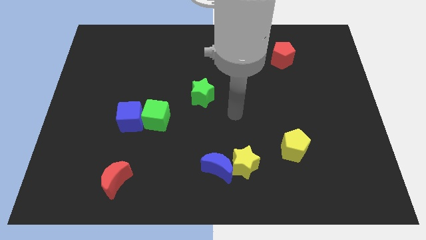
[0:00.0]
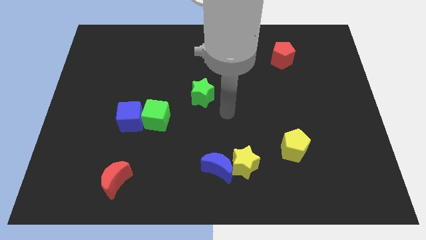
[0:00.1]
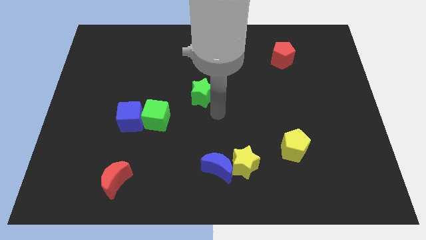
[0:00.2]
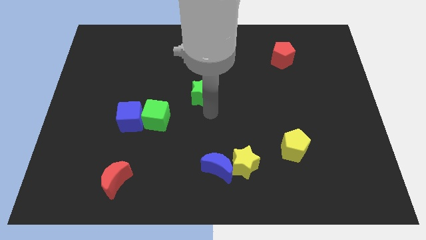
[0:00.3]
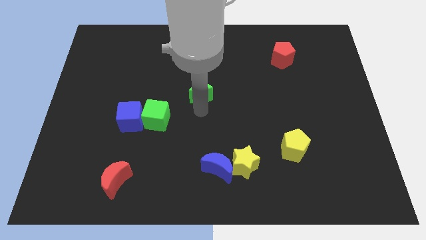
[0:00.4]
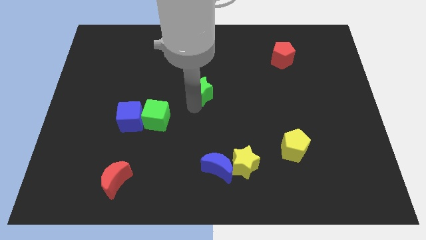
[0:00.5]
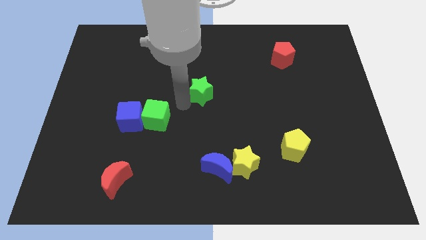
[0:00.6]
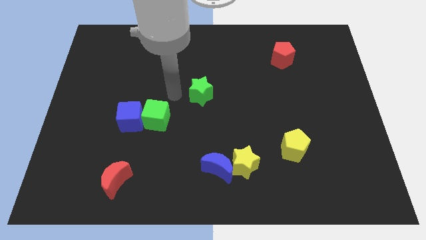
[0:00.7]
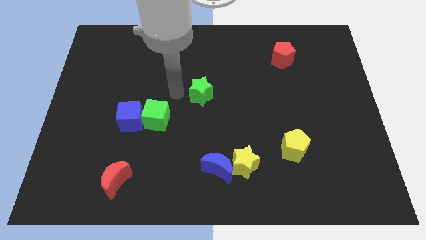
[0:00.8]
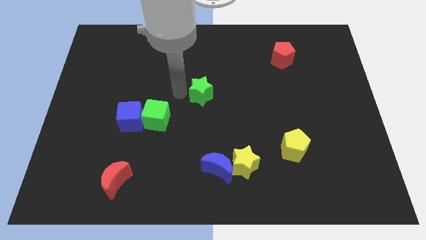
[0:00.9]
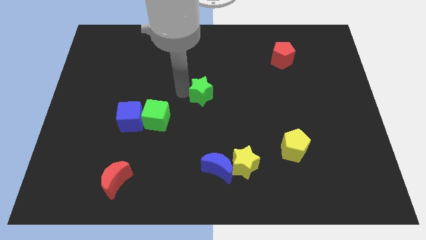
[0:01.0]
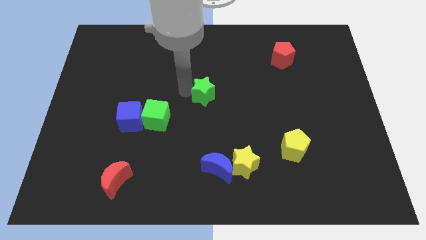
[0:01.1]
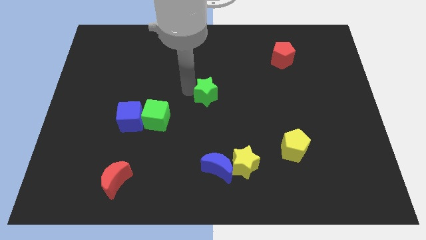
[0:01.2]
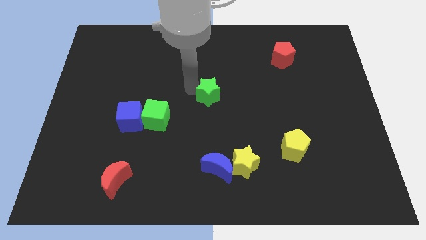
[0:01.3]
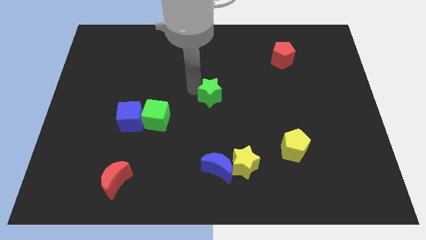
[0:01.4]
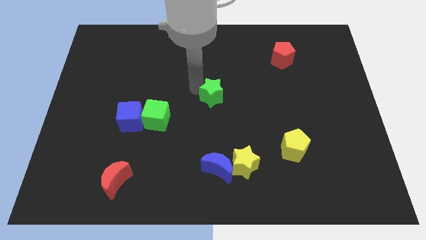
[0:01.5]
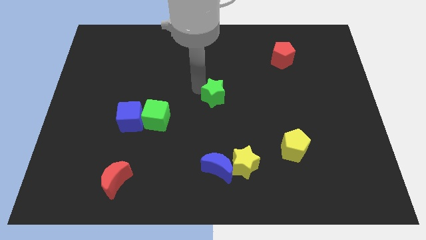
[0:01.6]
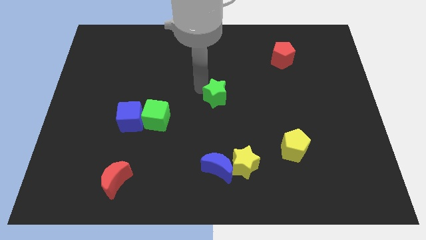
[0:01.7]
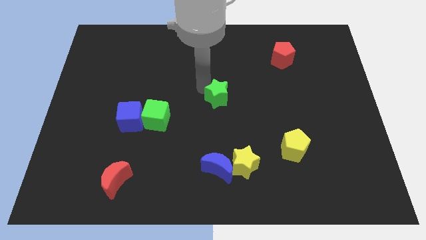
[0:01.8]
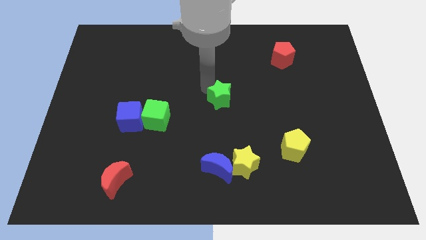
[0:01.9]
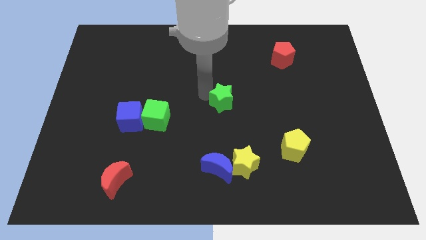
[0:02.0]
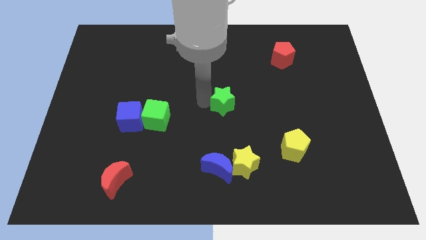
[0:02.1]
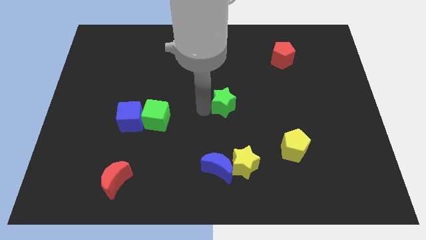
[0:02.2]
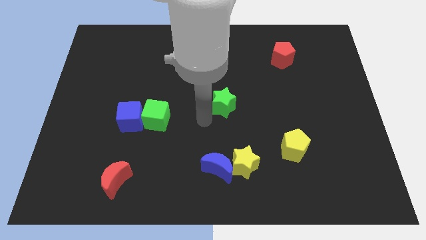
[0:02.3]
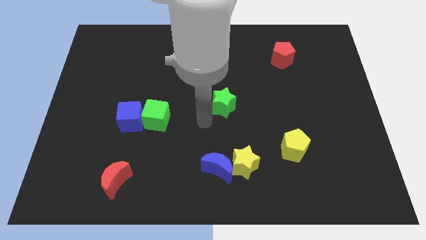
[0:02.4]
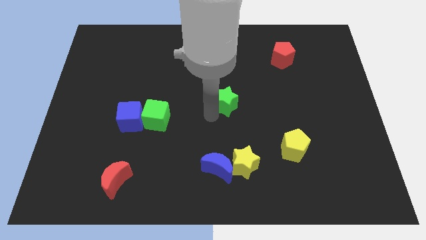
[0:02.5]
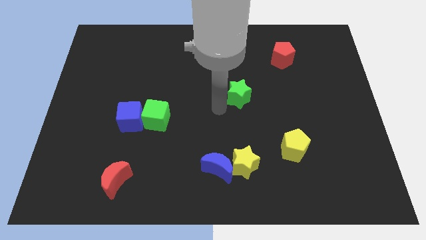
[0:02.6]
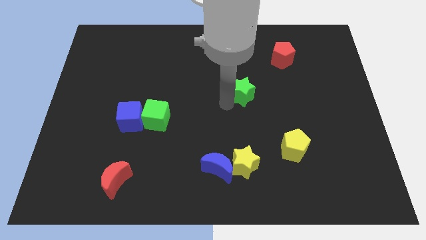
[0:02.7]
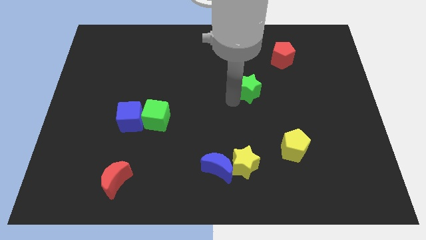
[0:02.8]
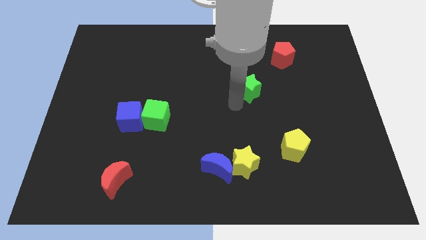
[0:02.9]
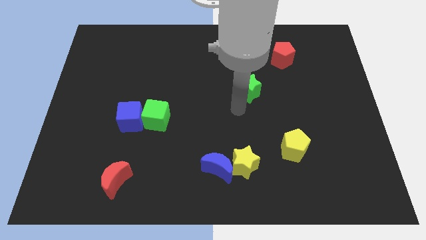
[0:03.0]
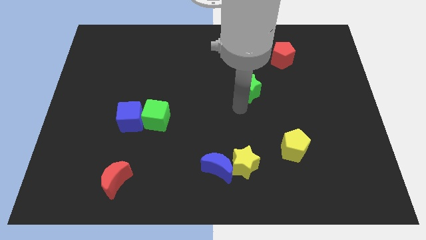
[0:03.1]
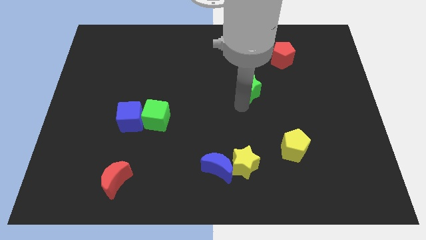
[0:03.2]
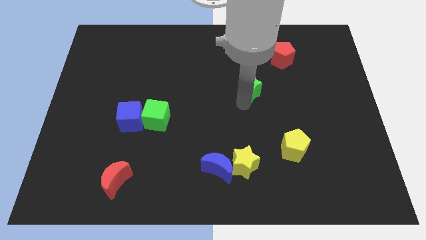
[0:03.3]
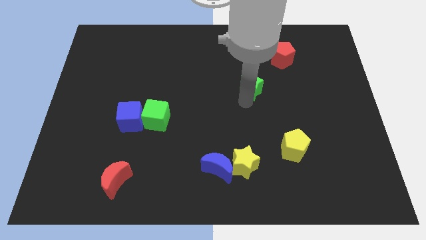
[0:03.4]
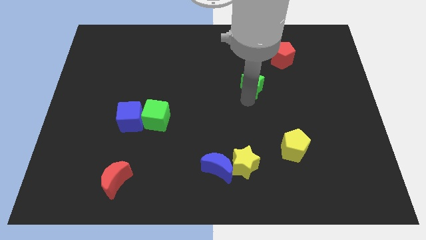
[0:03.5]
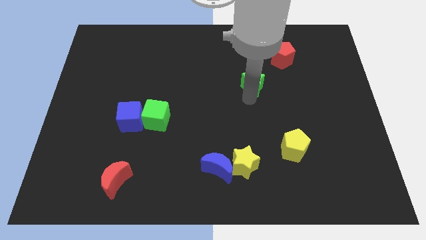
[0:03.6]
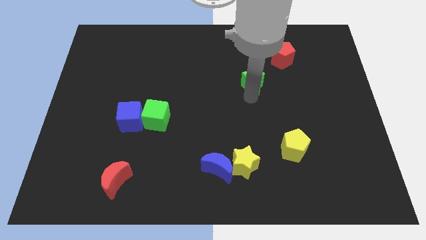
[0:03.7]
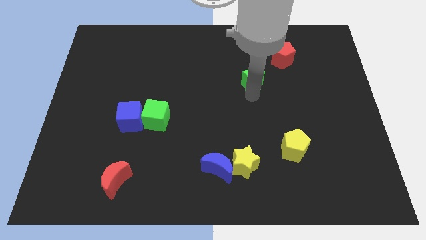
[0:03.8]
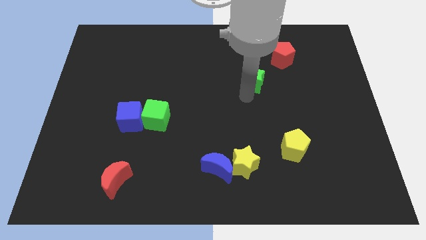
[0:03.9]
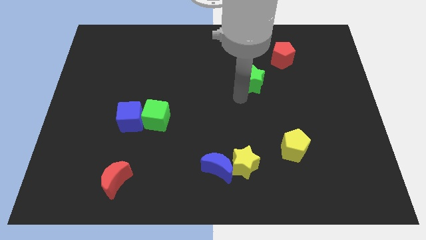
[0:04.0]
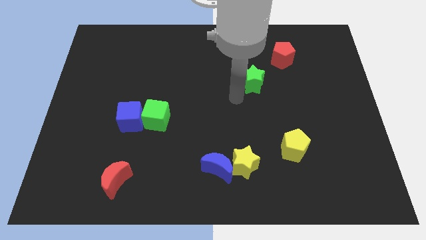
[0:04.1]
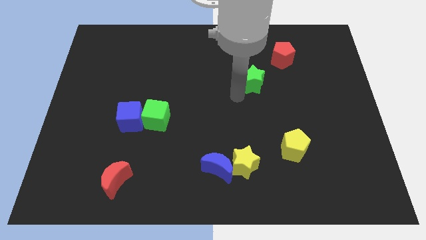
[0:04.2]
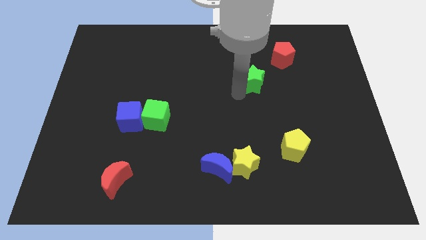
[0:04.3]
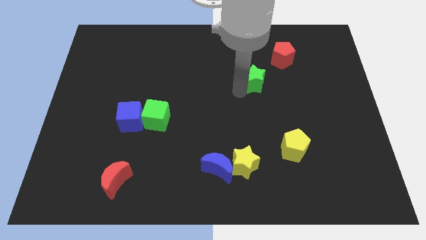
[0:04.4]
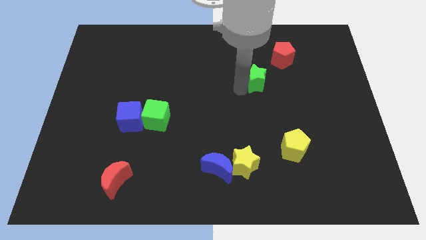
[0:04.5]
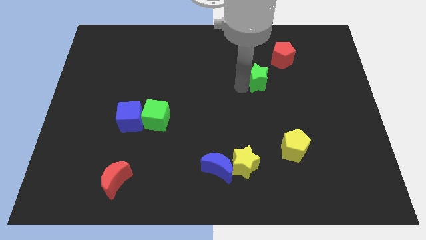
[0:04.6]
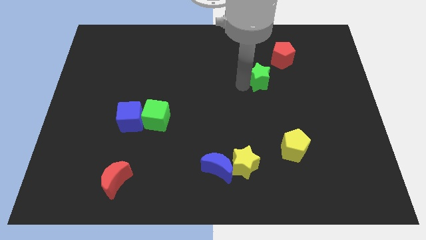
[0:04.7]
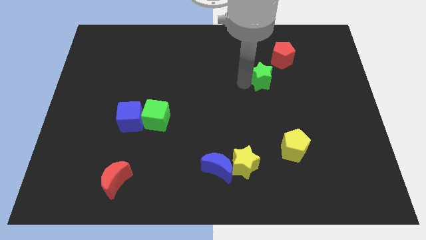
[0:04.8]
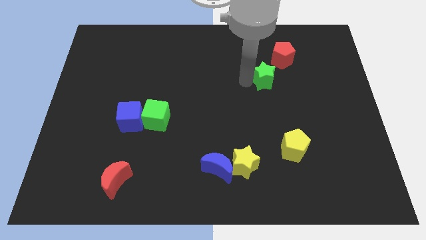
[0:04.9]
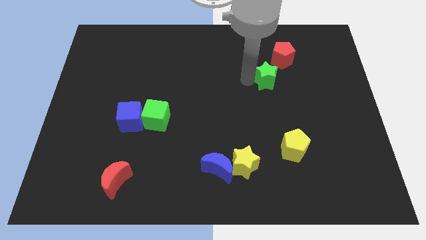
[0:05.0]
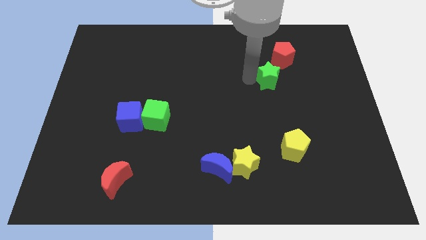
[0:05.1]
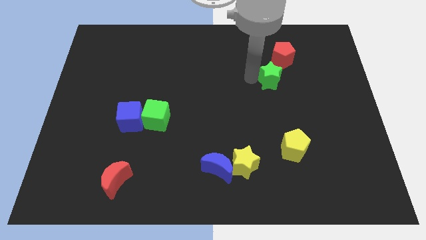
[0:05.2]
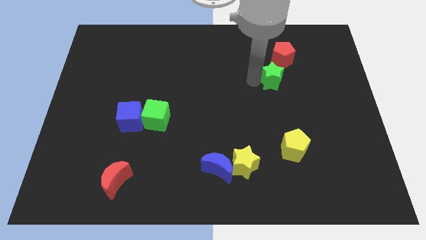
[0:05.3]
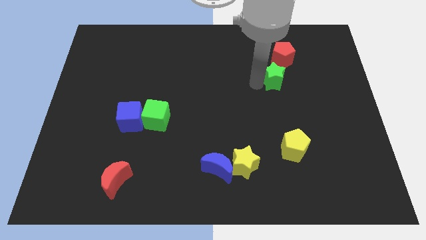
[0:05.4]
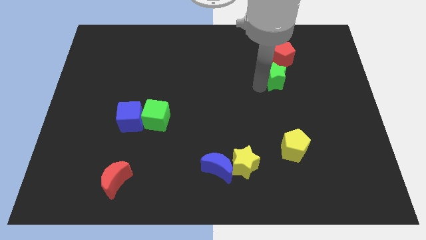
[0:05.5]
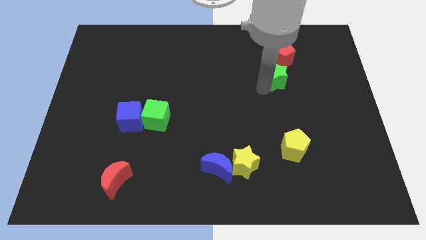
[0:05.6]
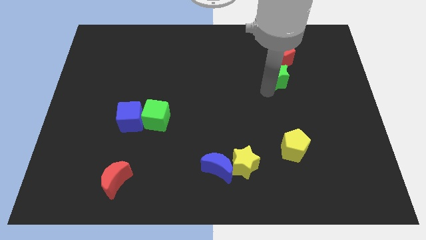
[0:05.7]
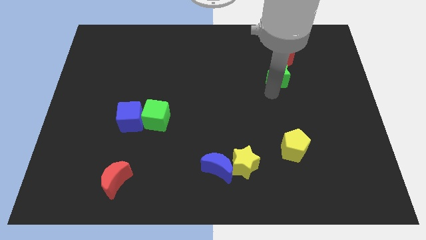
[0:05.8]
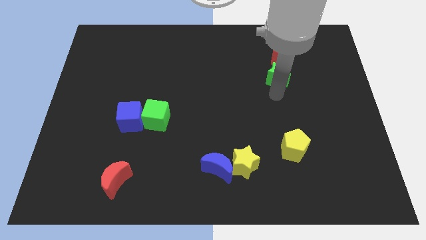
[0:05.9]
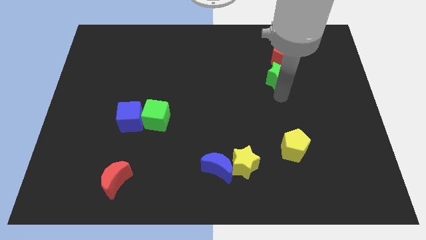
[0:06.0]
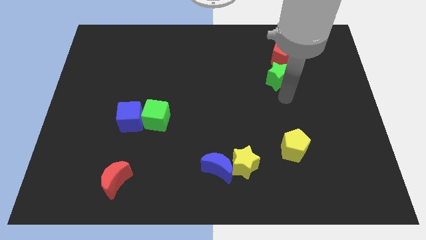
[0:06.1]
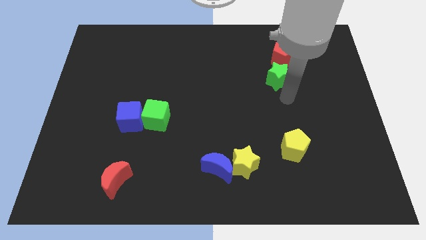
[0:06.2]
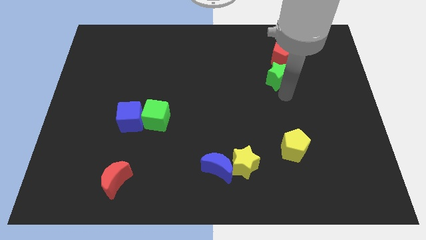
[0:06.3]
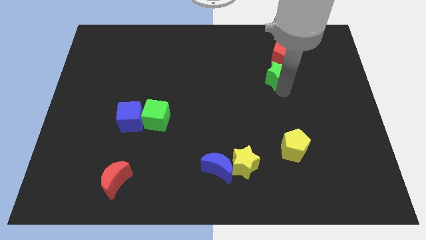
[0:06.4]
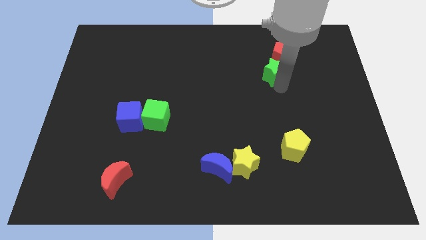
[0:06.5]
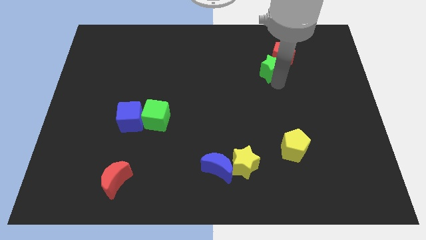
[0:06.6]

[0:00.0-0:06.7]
put the green star towards the red pentagon

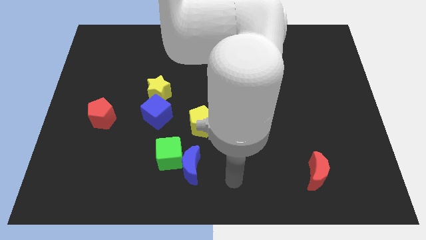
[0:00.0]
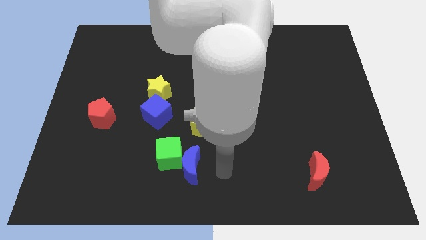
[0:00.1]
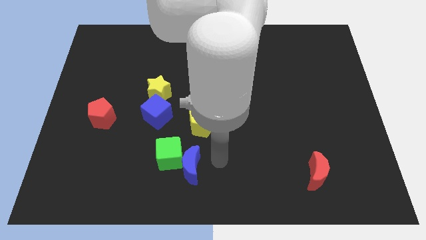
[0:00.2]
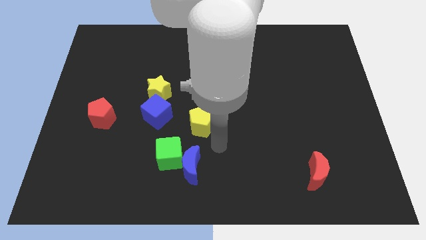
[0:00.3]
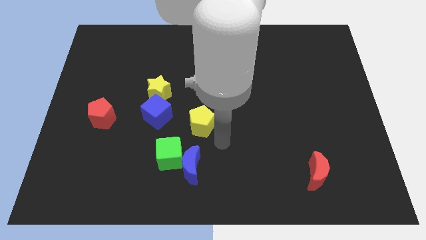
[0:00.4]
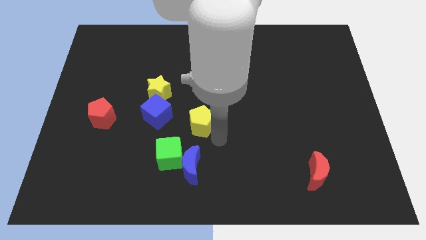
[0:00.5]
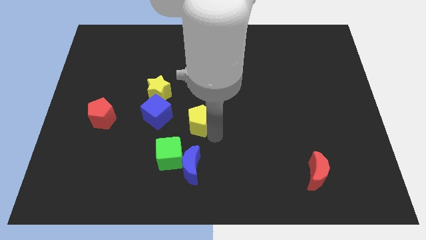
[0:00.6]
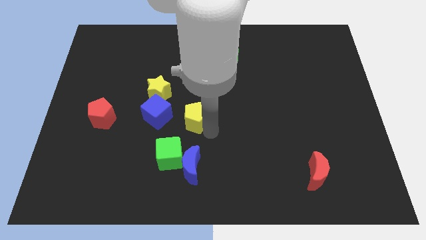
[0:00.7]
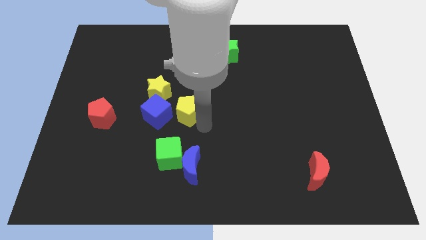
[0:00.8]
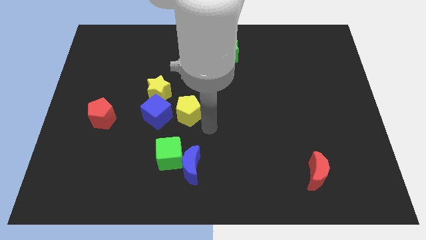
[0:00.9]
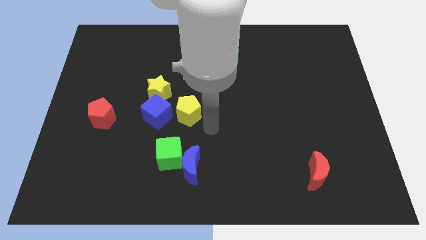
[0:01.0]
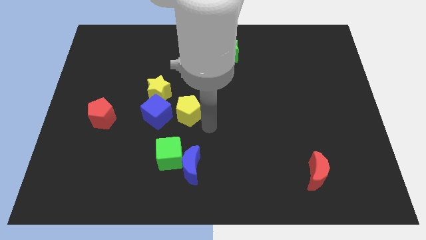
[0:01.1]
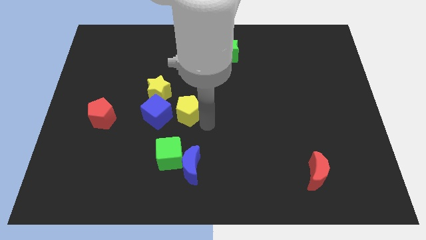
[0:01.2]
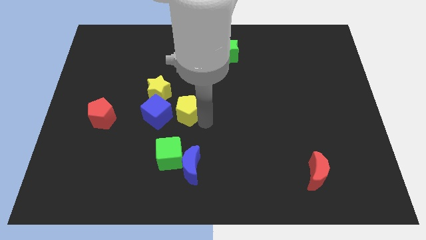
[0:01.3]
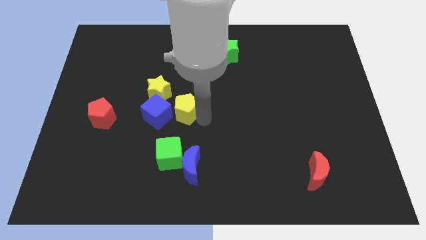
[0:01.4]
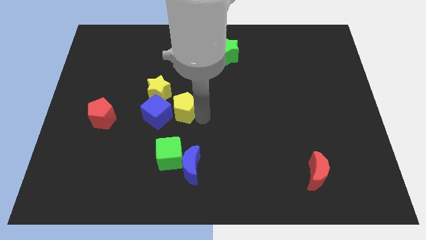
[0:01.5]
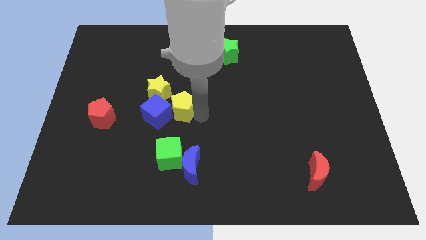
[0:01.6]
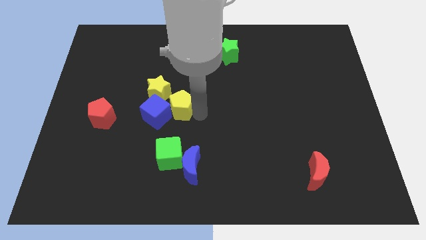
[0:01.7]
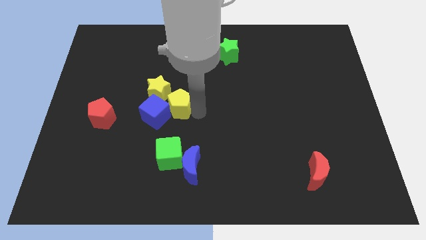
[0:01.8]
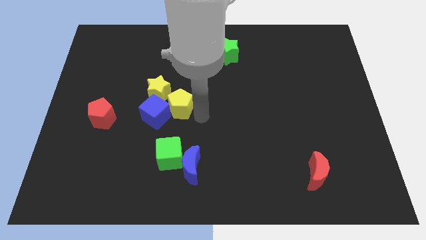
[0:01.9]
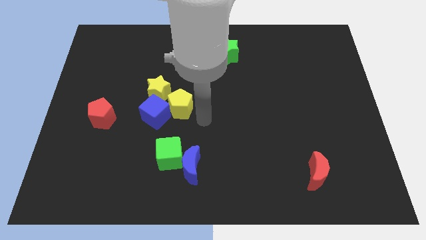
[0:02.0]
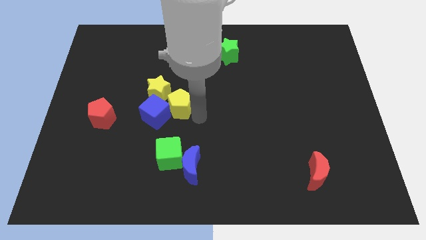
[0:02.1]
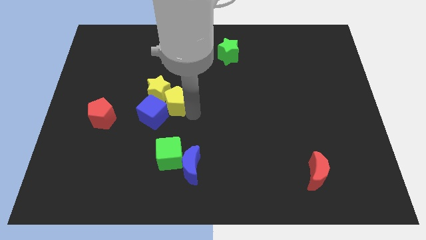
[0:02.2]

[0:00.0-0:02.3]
put the yellow pentagon to the yellow star
